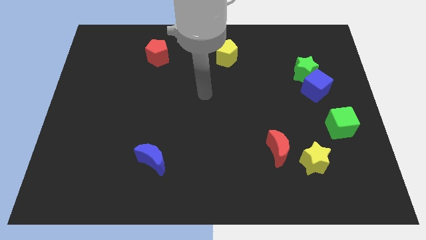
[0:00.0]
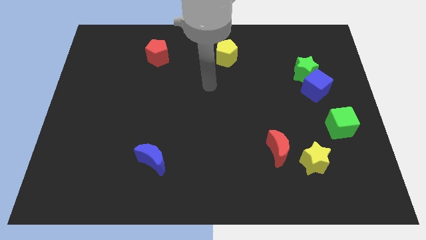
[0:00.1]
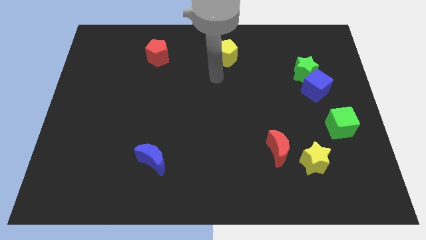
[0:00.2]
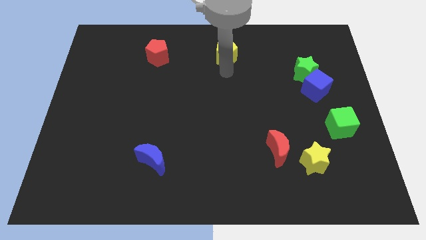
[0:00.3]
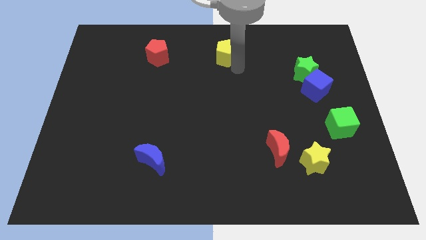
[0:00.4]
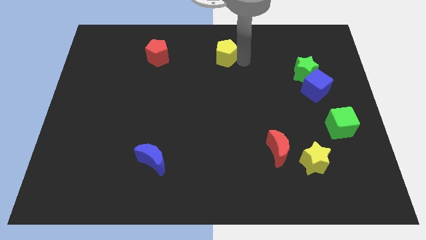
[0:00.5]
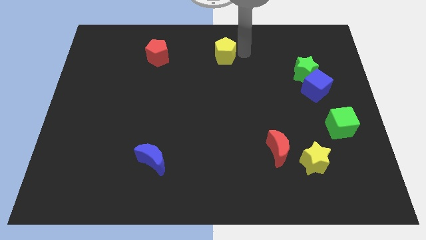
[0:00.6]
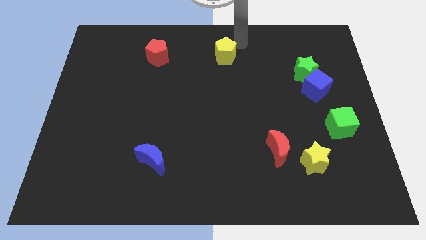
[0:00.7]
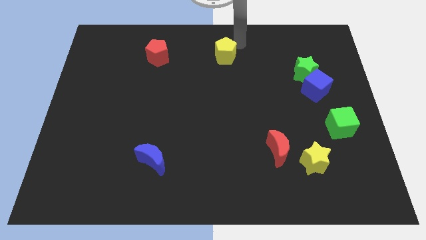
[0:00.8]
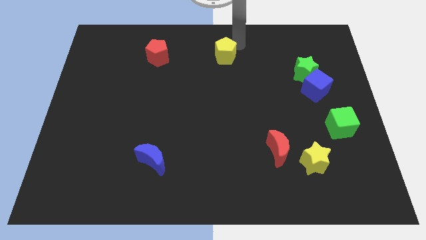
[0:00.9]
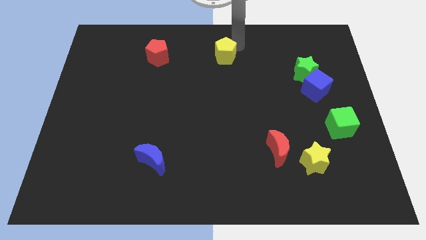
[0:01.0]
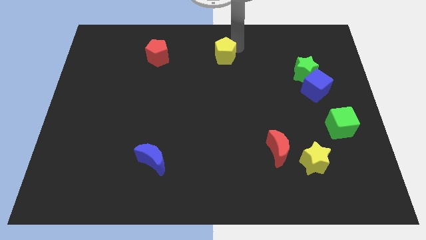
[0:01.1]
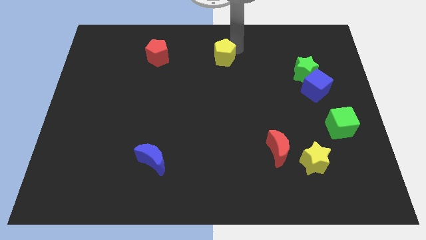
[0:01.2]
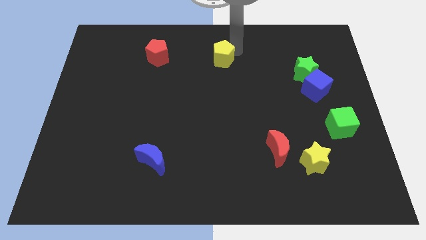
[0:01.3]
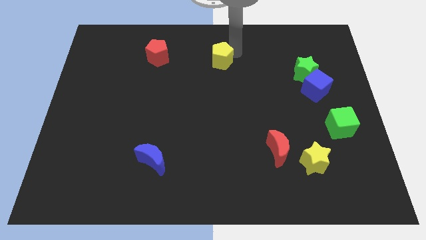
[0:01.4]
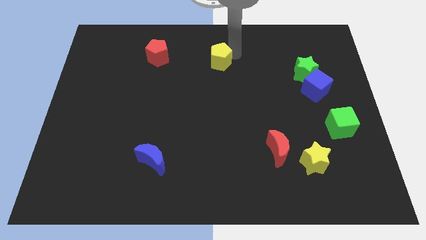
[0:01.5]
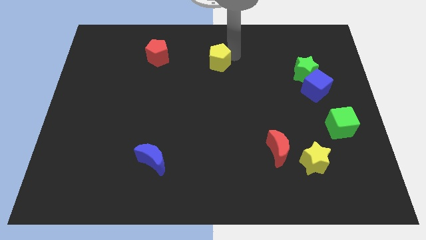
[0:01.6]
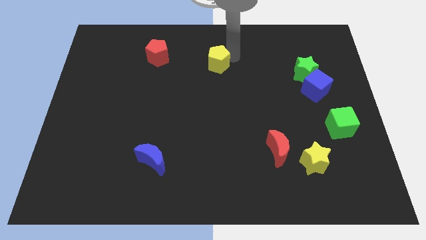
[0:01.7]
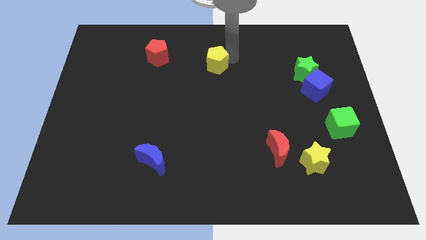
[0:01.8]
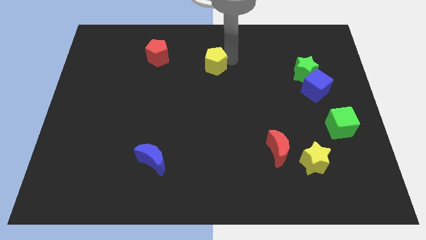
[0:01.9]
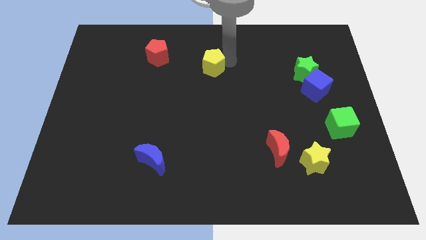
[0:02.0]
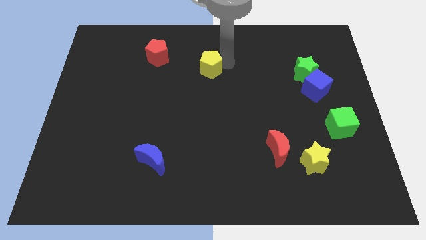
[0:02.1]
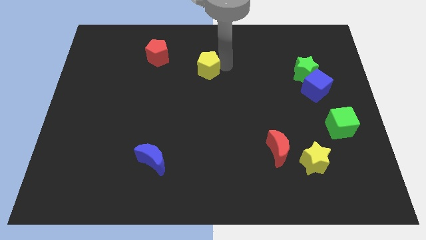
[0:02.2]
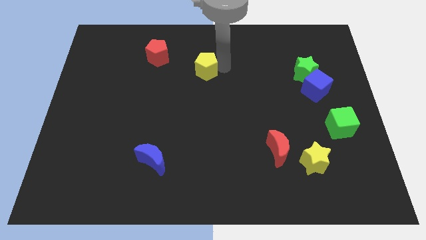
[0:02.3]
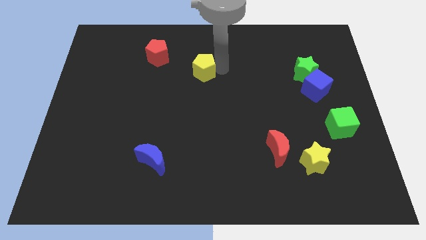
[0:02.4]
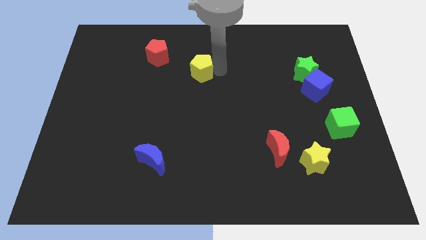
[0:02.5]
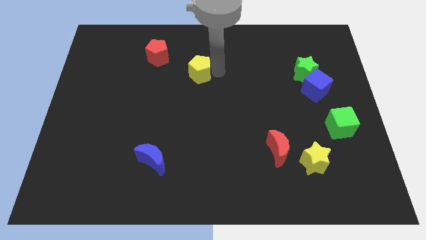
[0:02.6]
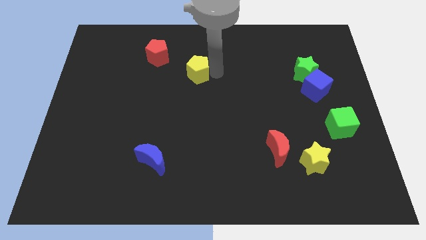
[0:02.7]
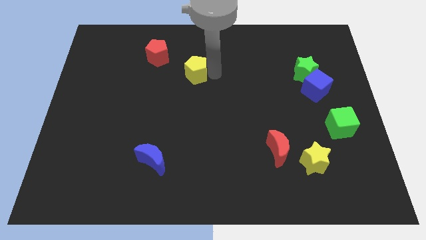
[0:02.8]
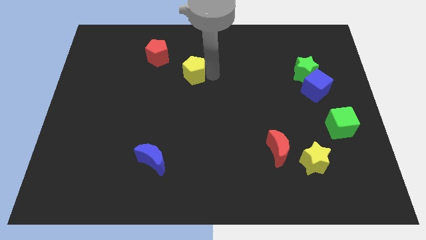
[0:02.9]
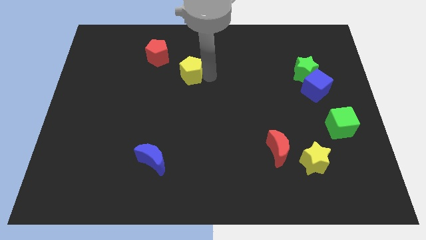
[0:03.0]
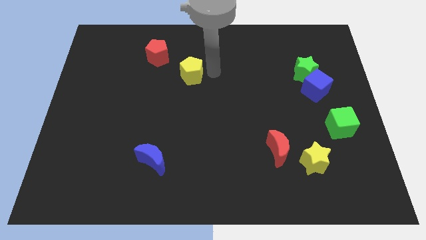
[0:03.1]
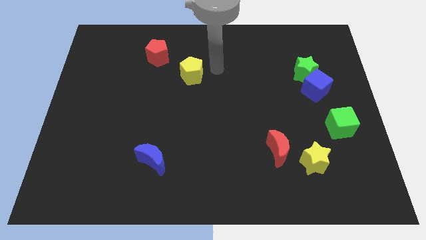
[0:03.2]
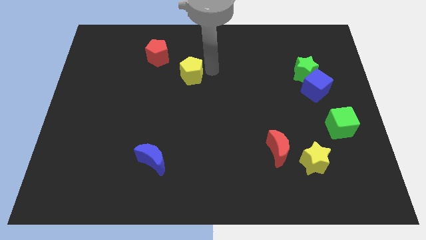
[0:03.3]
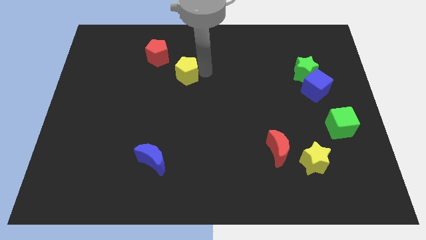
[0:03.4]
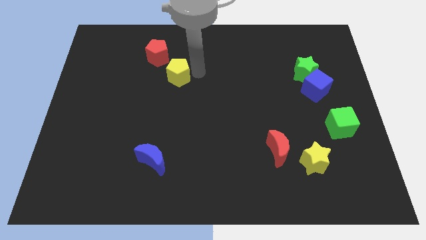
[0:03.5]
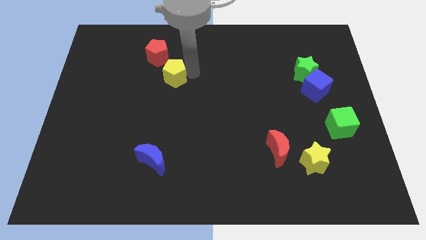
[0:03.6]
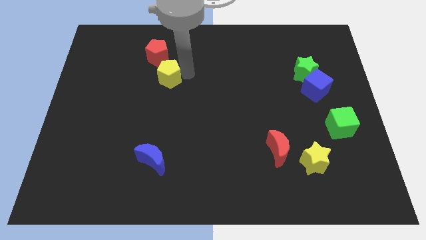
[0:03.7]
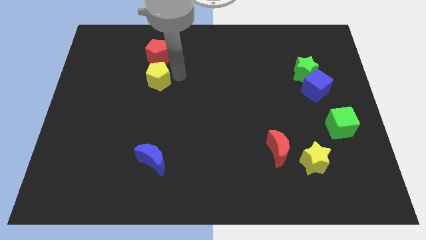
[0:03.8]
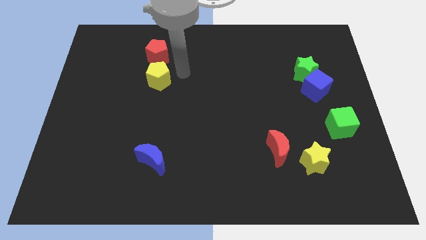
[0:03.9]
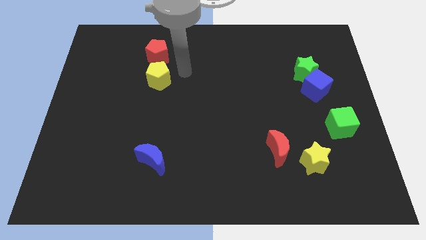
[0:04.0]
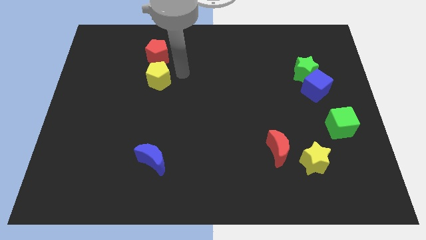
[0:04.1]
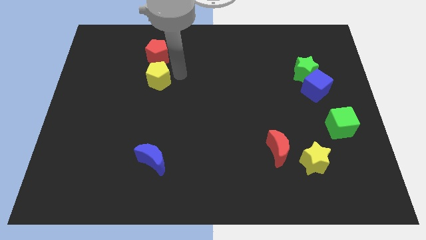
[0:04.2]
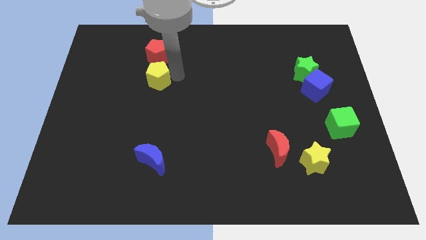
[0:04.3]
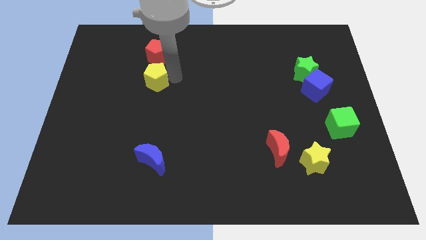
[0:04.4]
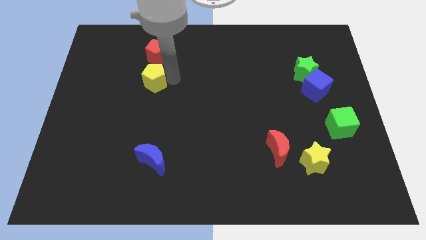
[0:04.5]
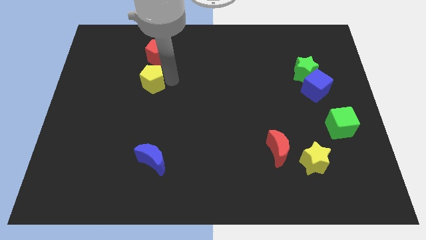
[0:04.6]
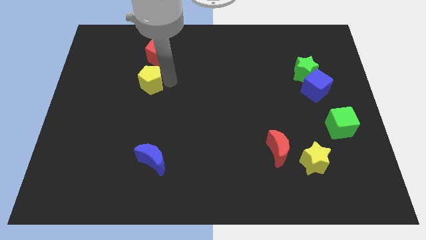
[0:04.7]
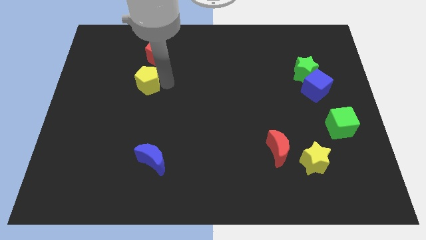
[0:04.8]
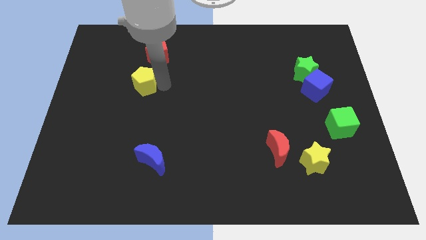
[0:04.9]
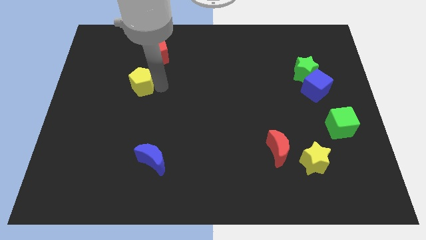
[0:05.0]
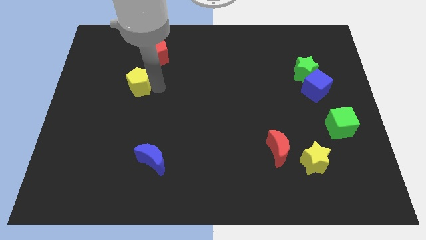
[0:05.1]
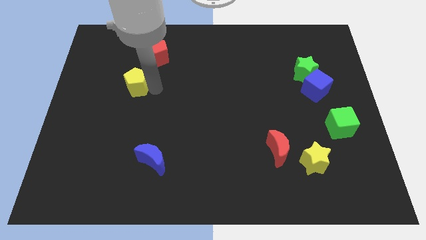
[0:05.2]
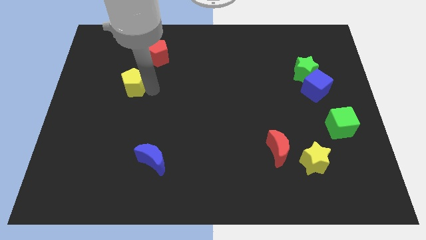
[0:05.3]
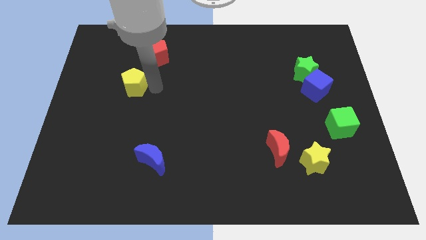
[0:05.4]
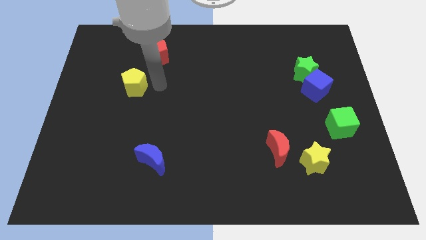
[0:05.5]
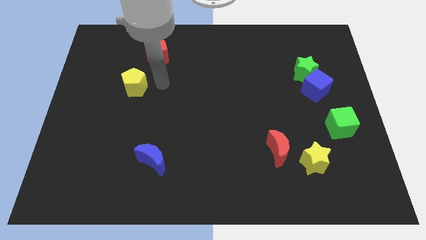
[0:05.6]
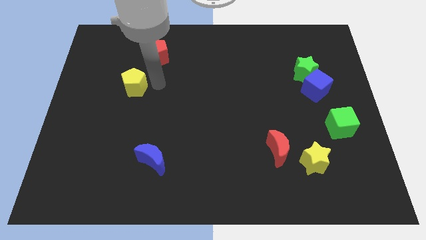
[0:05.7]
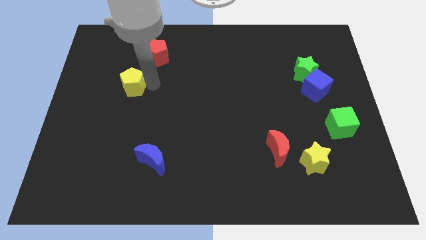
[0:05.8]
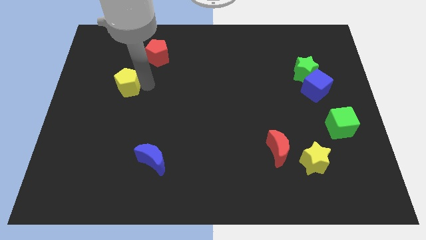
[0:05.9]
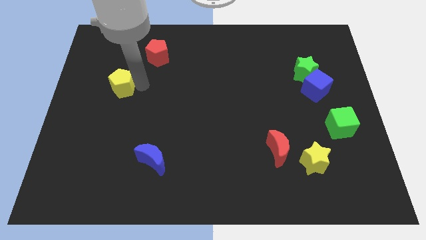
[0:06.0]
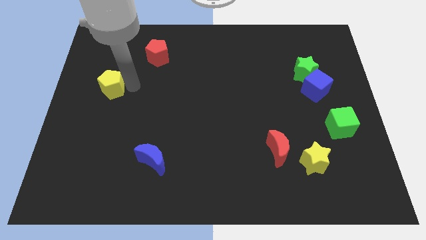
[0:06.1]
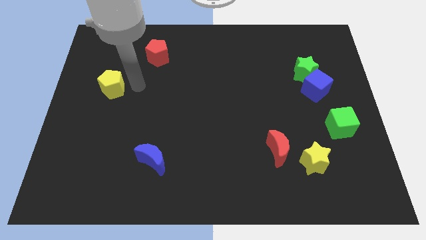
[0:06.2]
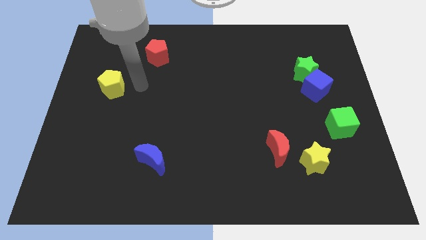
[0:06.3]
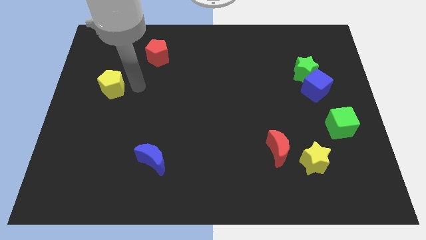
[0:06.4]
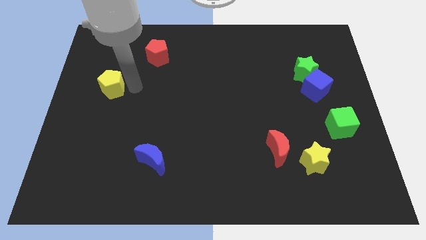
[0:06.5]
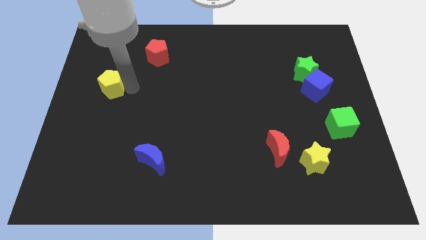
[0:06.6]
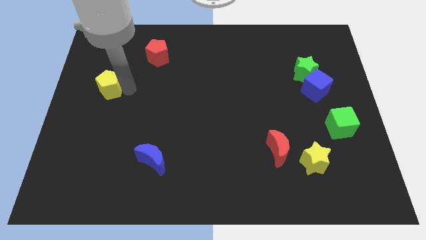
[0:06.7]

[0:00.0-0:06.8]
slide the yellow pentagon to the center left

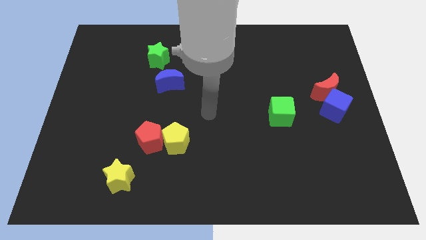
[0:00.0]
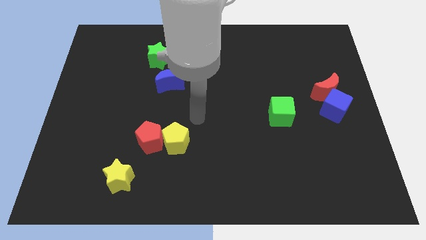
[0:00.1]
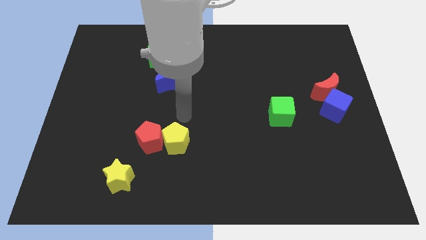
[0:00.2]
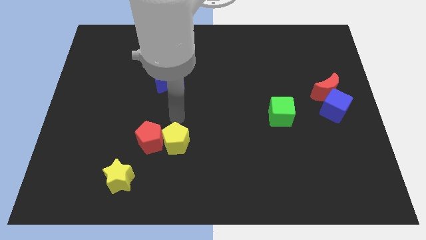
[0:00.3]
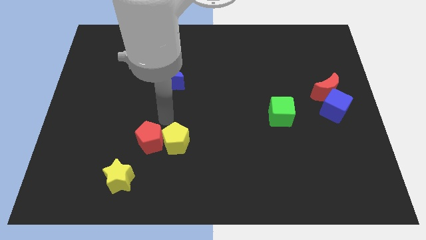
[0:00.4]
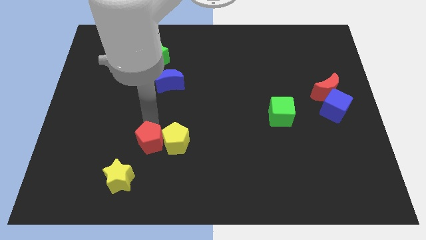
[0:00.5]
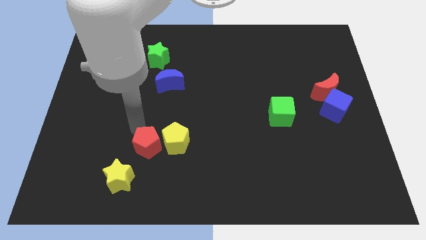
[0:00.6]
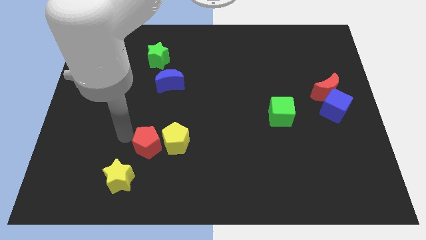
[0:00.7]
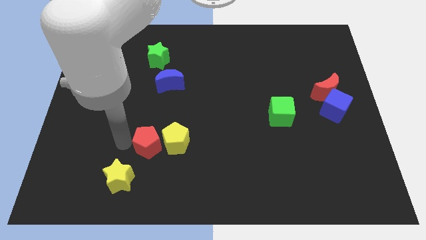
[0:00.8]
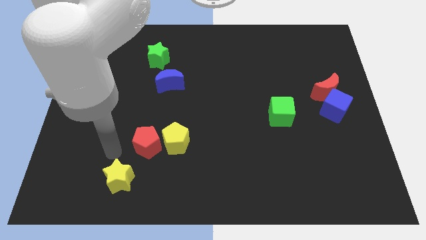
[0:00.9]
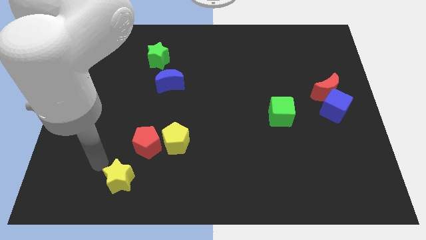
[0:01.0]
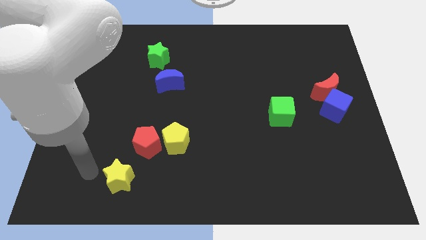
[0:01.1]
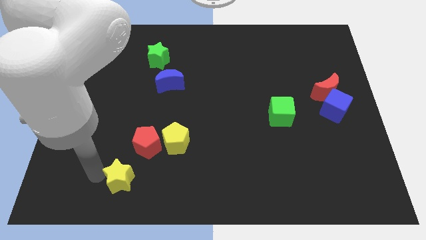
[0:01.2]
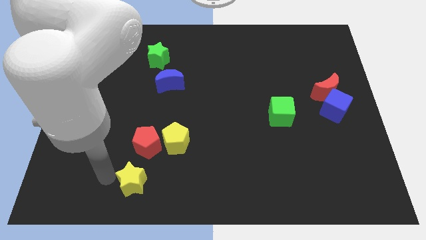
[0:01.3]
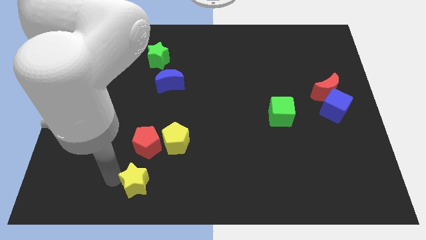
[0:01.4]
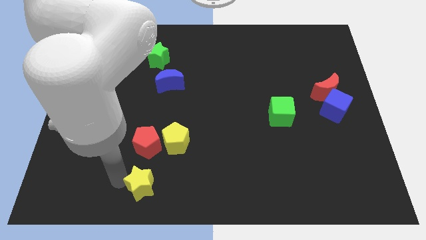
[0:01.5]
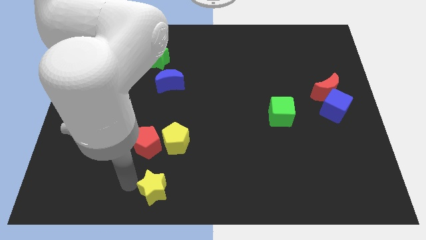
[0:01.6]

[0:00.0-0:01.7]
move the yellow star to the bottom side
